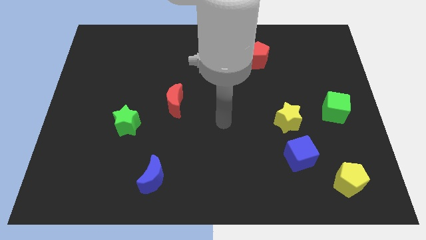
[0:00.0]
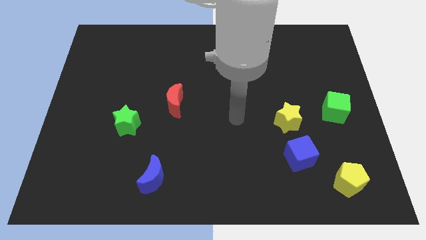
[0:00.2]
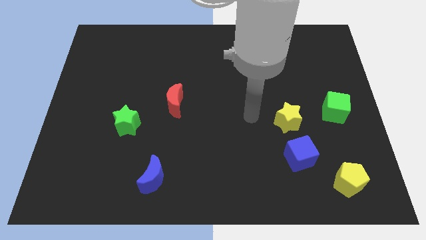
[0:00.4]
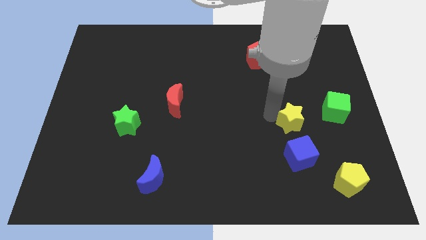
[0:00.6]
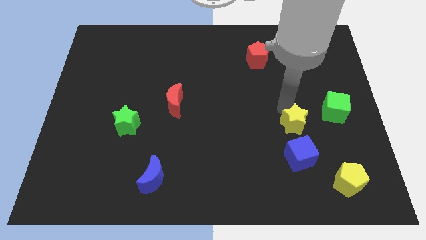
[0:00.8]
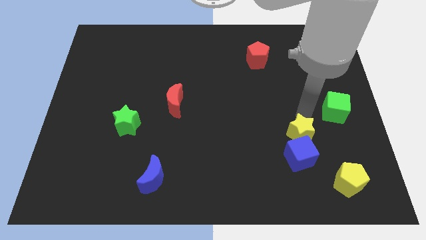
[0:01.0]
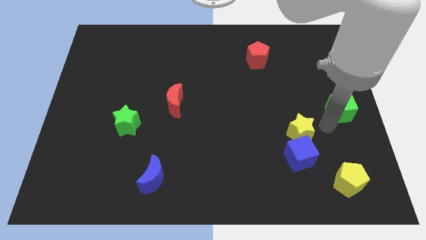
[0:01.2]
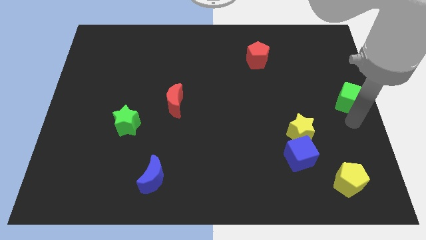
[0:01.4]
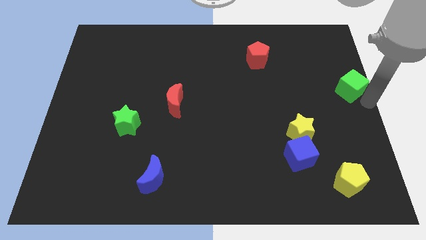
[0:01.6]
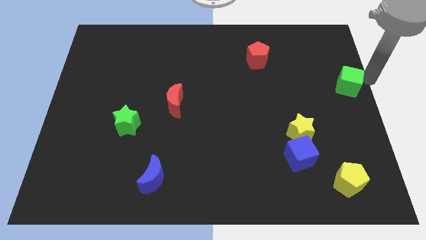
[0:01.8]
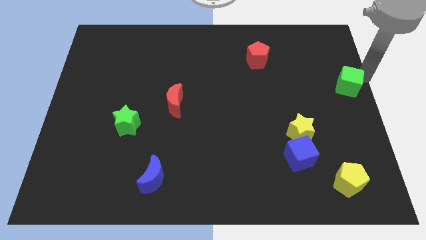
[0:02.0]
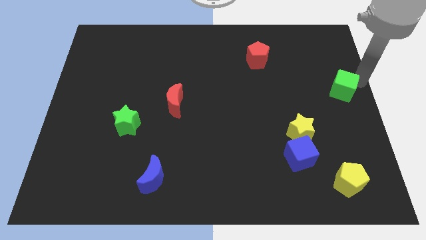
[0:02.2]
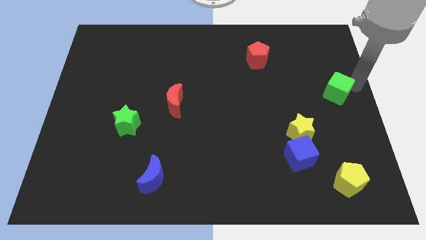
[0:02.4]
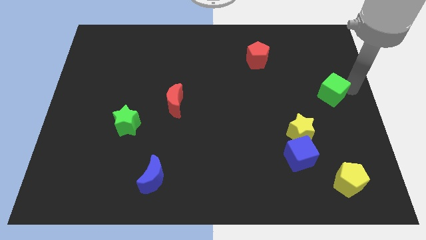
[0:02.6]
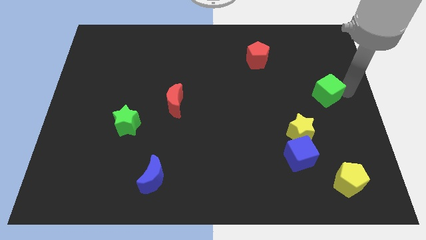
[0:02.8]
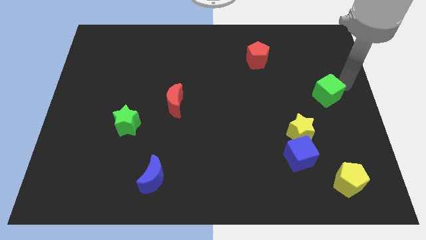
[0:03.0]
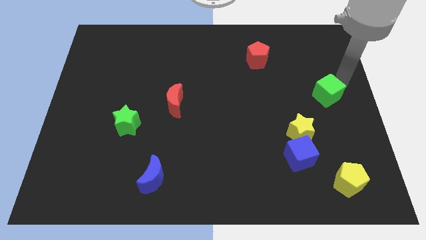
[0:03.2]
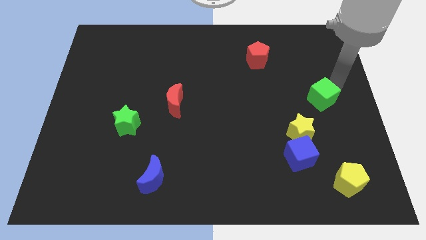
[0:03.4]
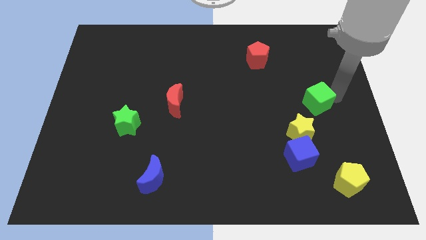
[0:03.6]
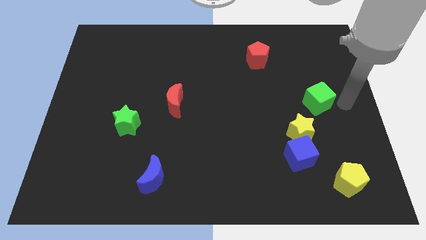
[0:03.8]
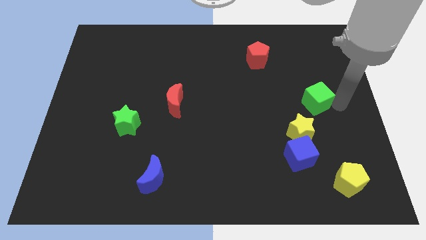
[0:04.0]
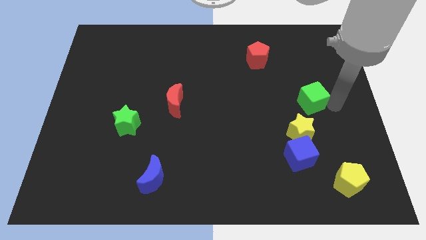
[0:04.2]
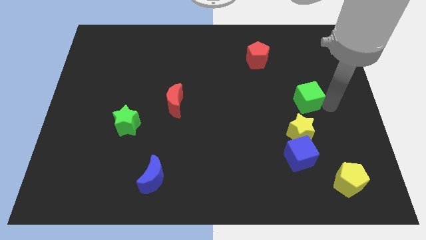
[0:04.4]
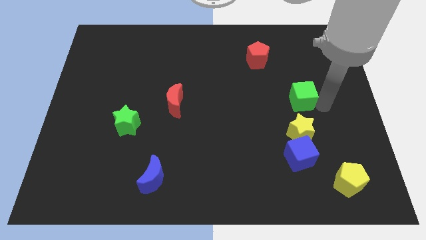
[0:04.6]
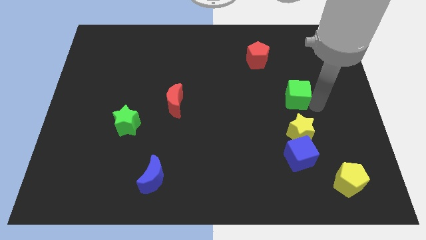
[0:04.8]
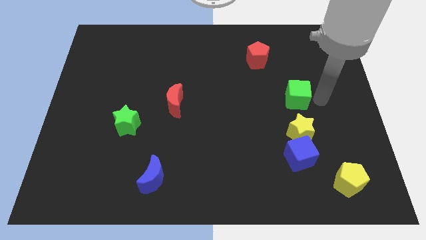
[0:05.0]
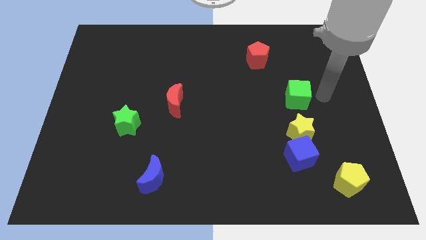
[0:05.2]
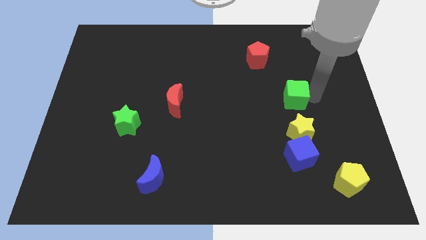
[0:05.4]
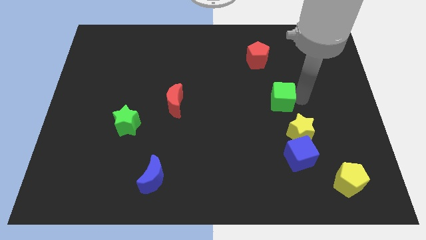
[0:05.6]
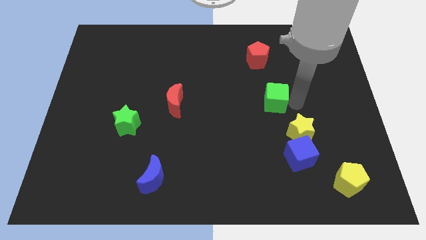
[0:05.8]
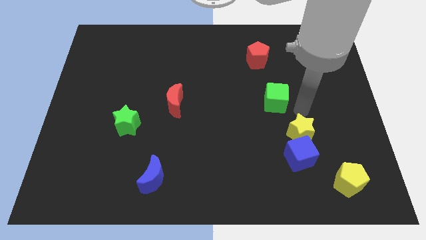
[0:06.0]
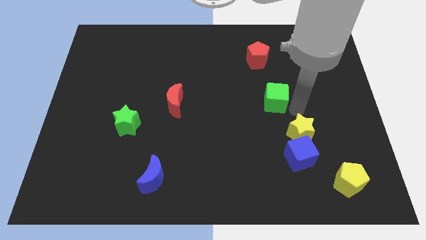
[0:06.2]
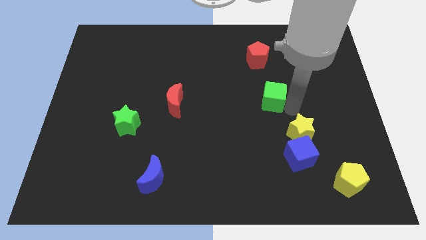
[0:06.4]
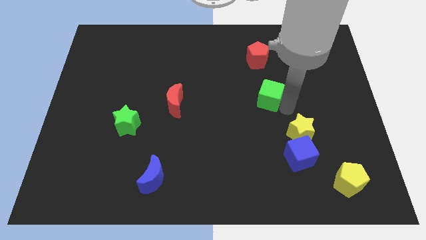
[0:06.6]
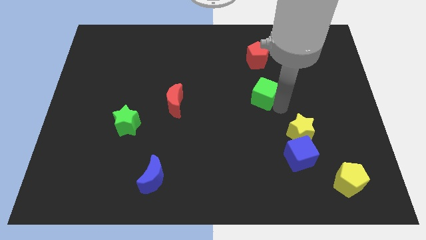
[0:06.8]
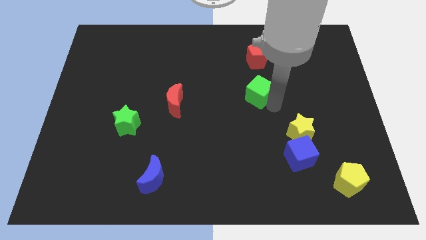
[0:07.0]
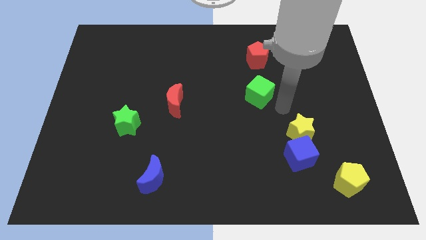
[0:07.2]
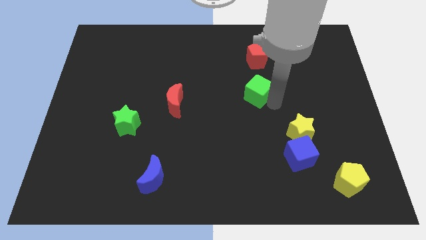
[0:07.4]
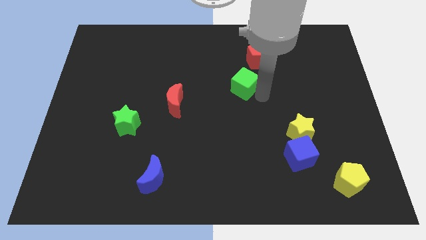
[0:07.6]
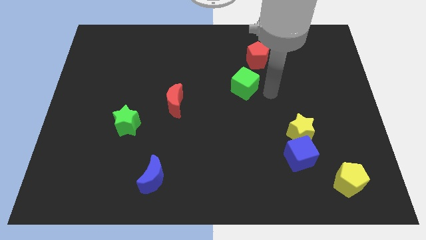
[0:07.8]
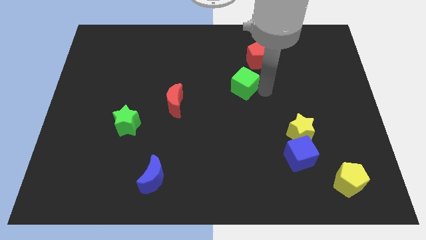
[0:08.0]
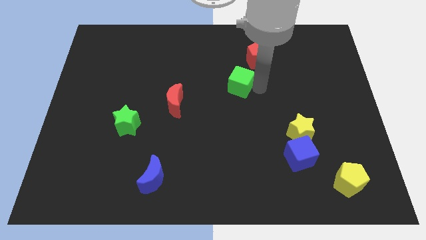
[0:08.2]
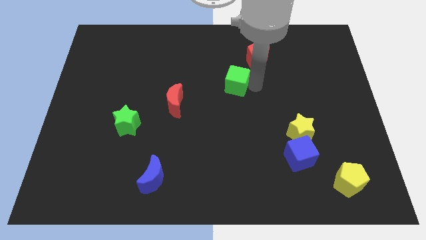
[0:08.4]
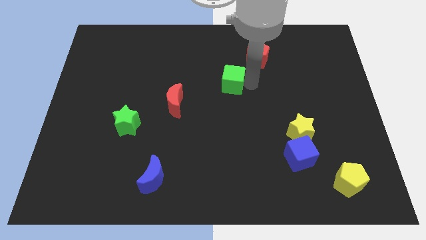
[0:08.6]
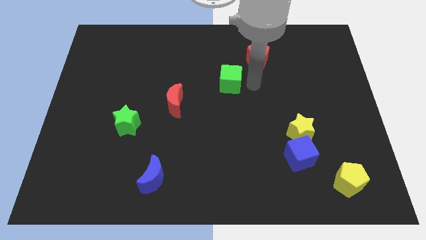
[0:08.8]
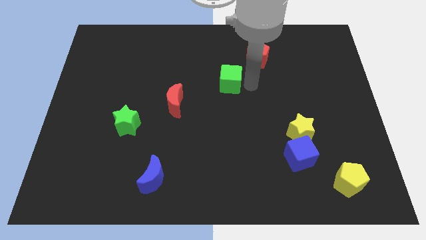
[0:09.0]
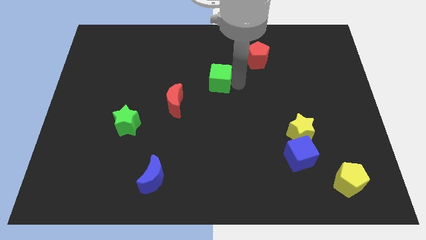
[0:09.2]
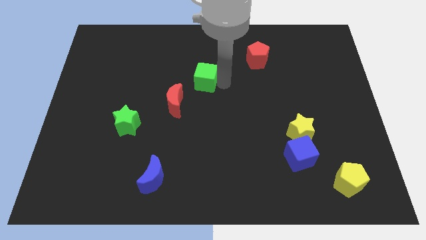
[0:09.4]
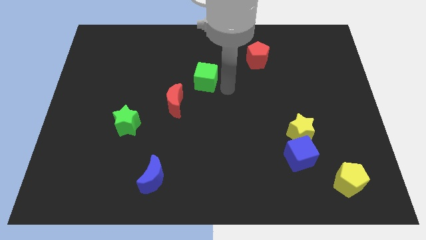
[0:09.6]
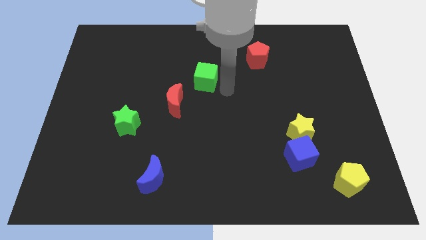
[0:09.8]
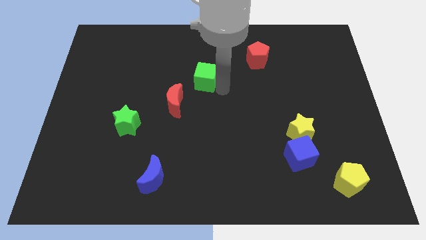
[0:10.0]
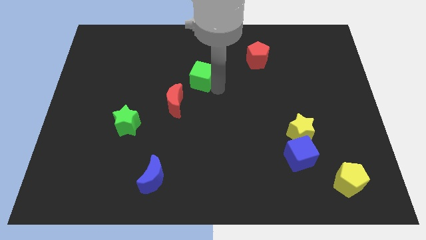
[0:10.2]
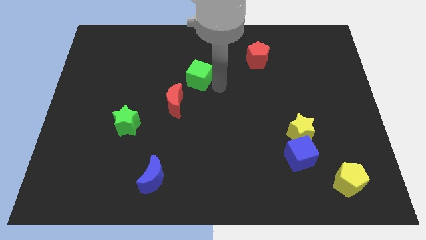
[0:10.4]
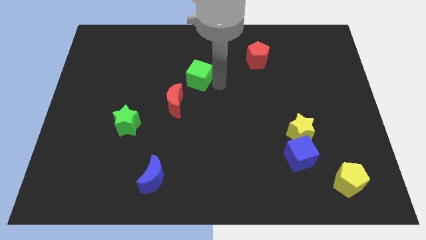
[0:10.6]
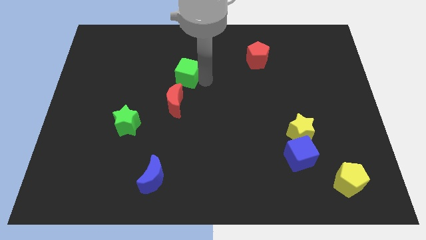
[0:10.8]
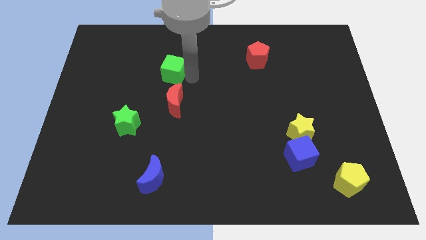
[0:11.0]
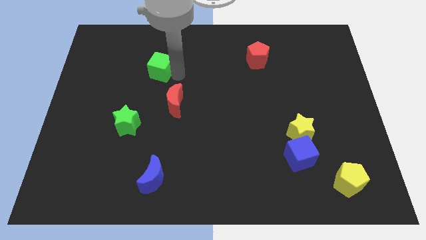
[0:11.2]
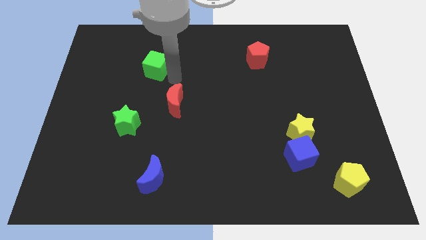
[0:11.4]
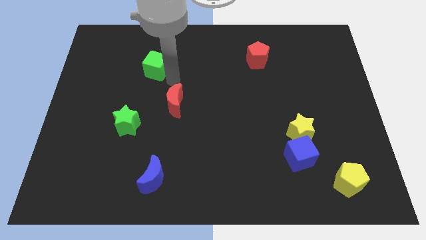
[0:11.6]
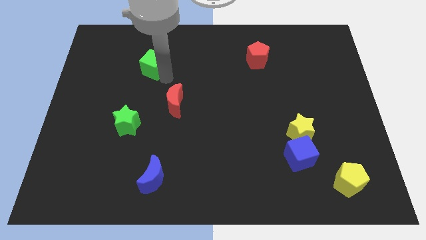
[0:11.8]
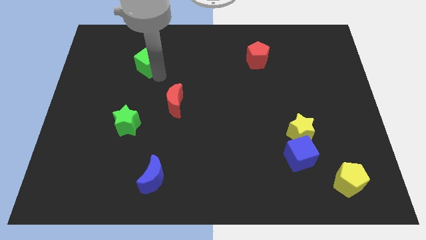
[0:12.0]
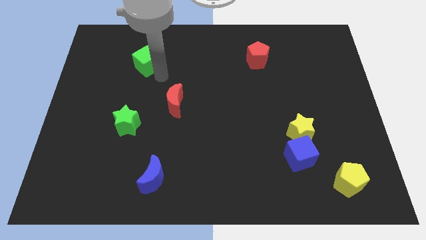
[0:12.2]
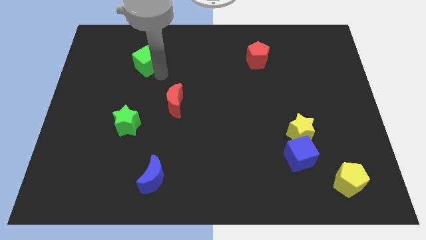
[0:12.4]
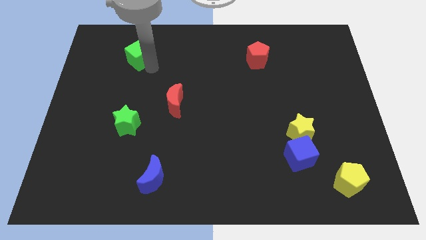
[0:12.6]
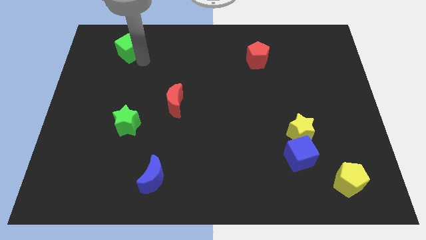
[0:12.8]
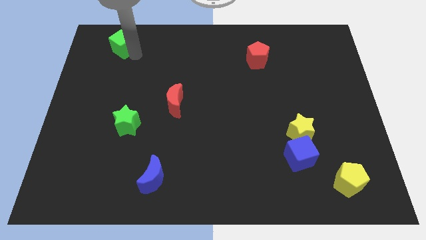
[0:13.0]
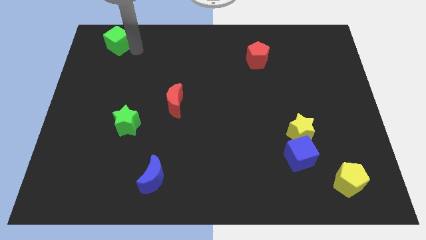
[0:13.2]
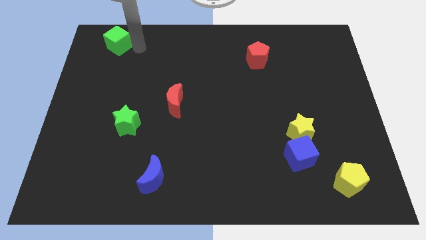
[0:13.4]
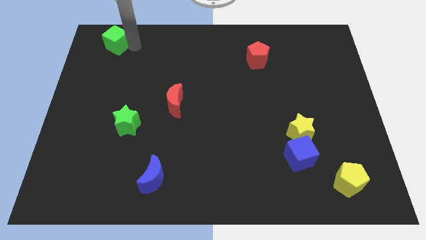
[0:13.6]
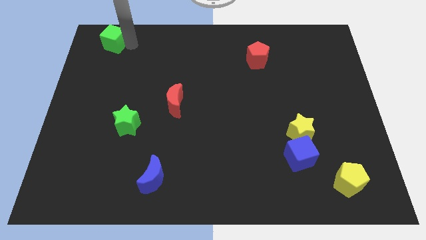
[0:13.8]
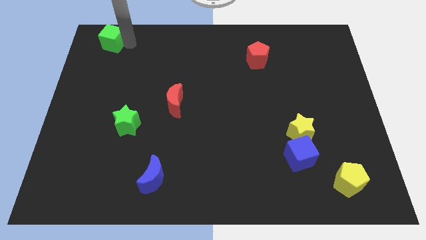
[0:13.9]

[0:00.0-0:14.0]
put the green cube to the top left
